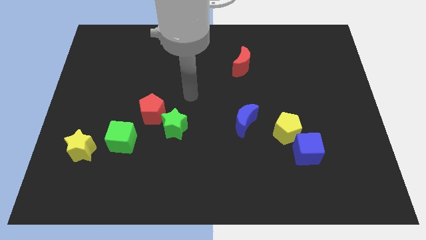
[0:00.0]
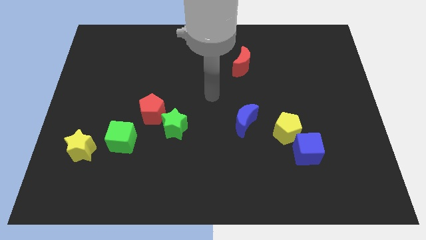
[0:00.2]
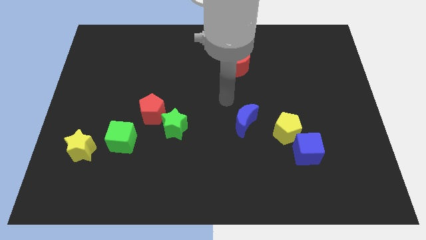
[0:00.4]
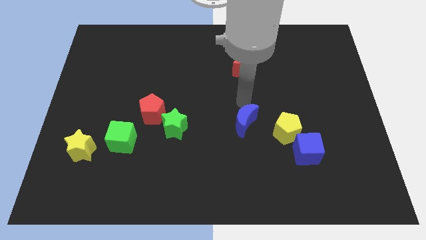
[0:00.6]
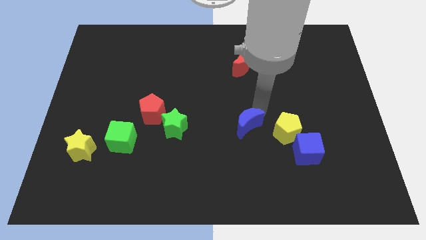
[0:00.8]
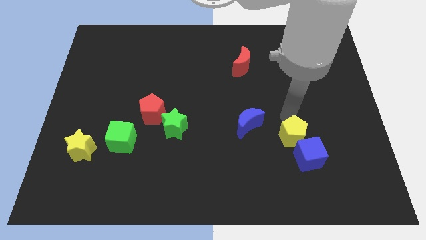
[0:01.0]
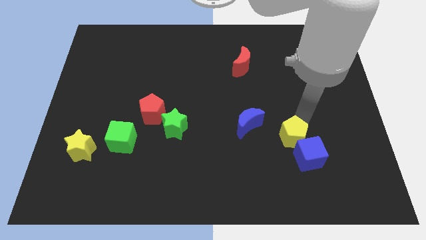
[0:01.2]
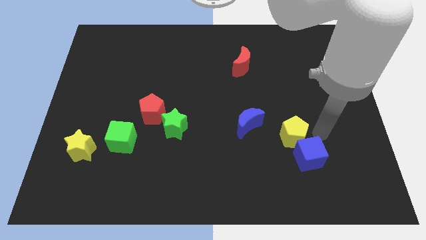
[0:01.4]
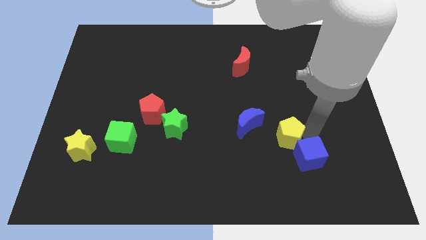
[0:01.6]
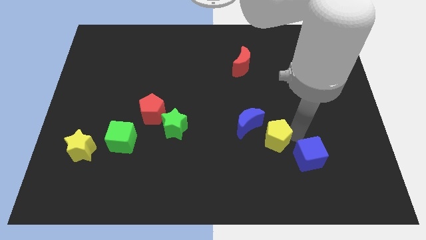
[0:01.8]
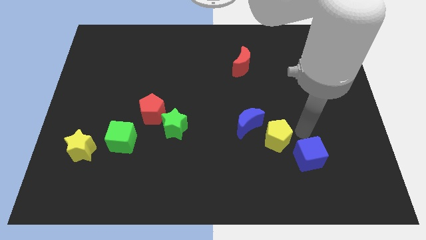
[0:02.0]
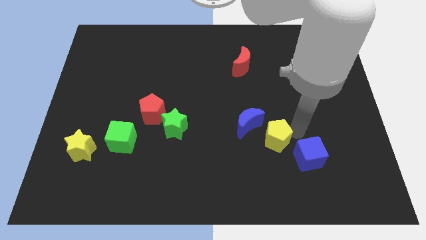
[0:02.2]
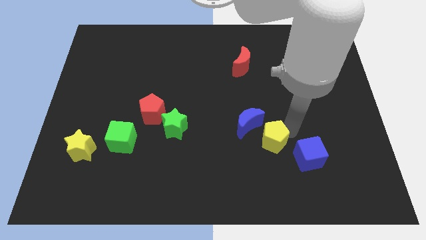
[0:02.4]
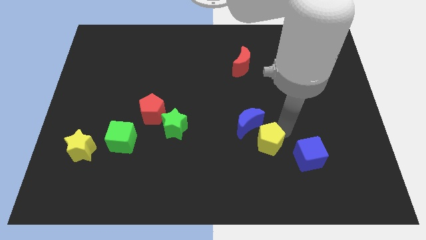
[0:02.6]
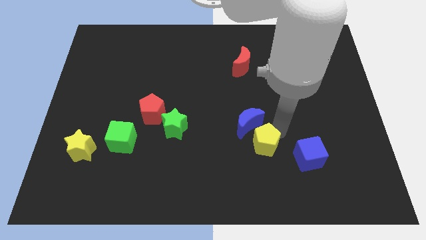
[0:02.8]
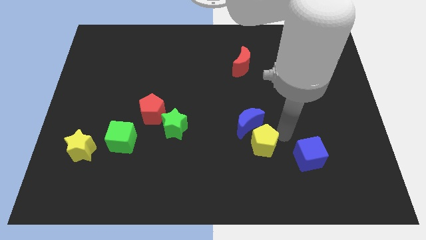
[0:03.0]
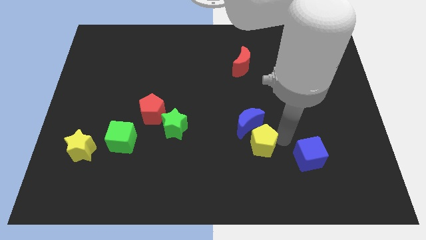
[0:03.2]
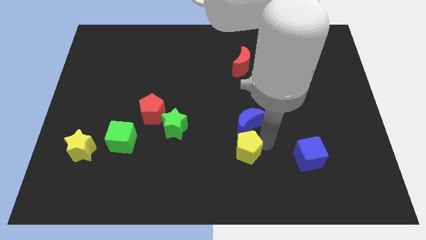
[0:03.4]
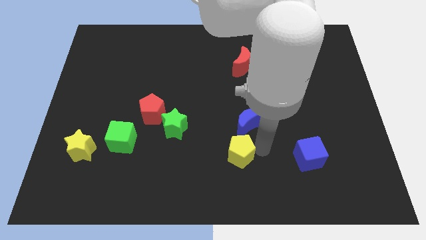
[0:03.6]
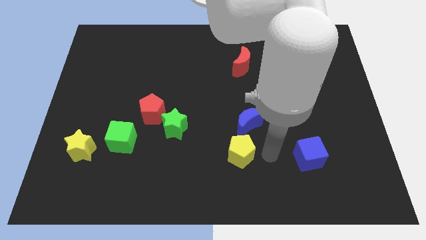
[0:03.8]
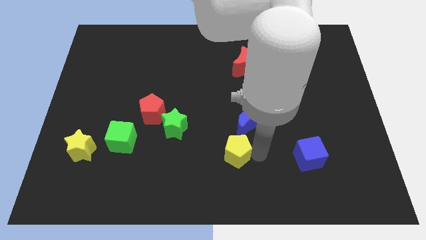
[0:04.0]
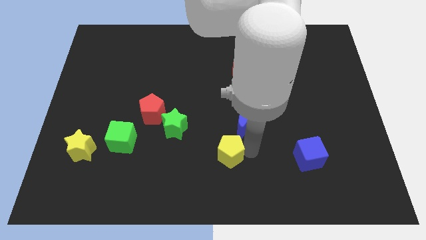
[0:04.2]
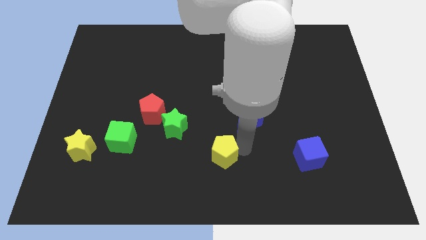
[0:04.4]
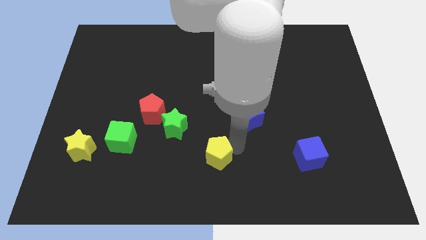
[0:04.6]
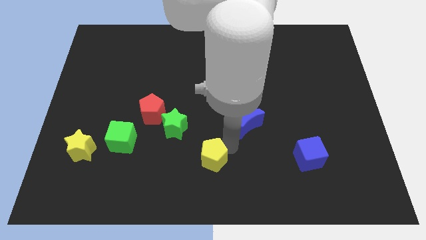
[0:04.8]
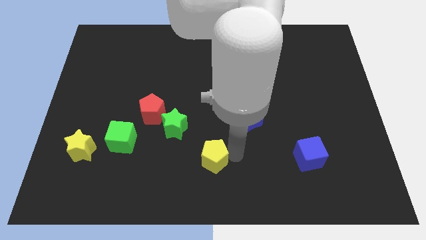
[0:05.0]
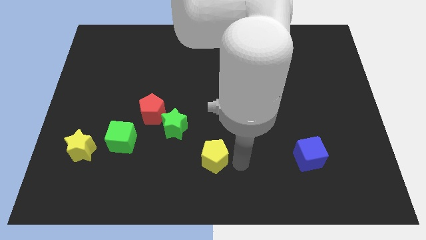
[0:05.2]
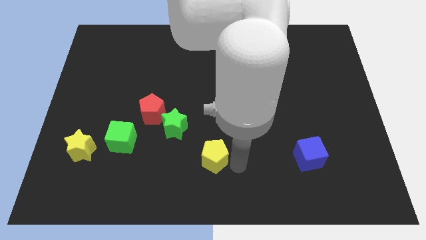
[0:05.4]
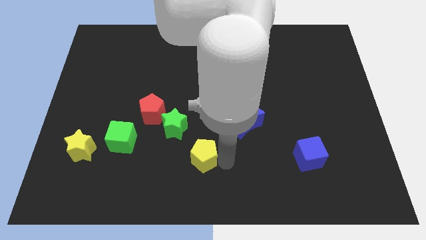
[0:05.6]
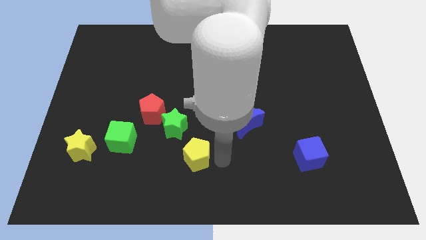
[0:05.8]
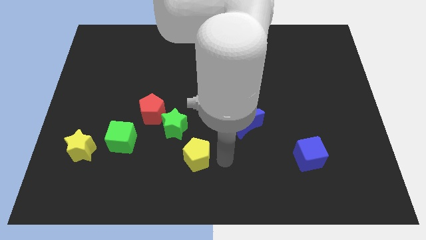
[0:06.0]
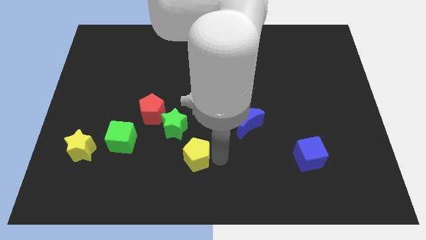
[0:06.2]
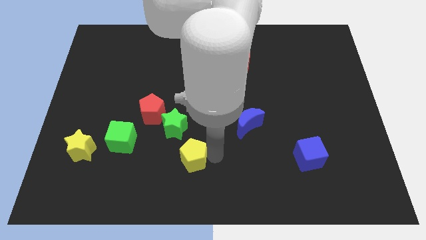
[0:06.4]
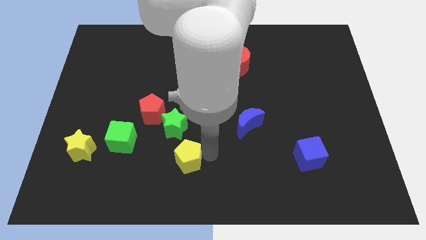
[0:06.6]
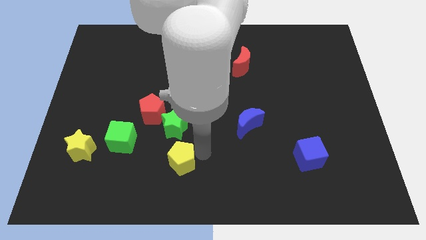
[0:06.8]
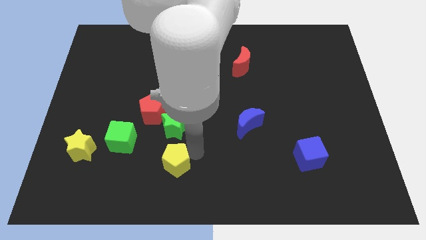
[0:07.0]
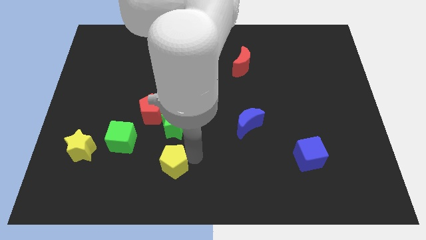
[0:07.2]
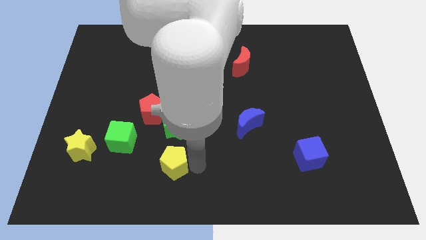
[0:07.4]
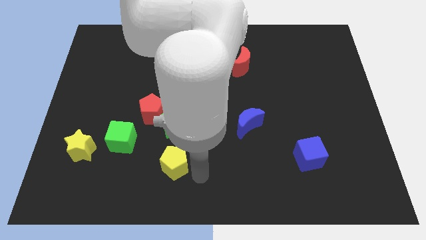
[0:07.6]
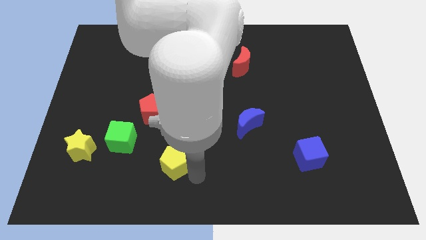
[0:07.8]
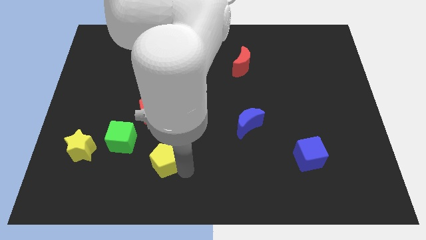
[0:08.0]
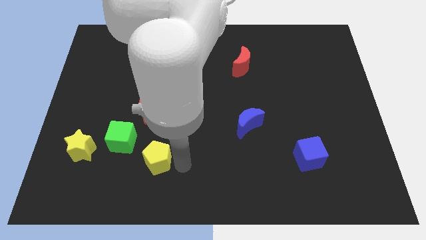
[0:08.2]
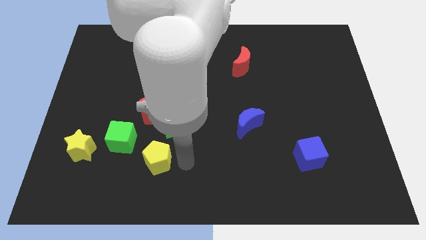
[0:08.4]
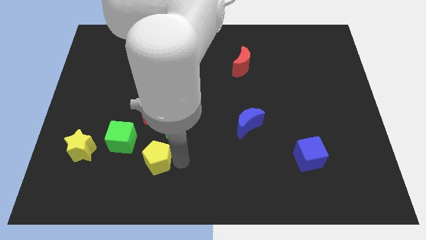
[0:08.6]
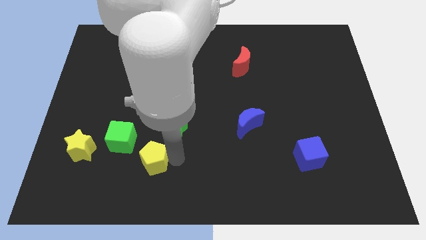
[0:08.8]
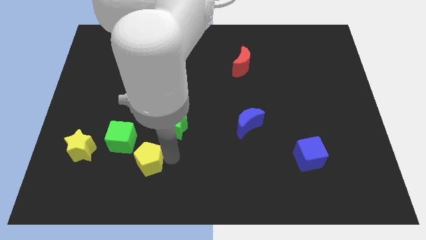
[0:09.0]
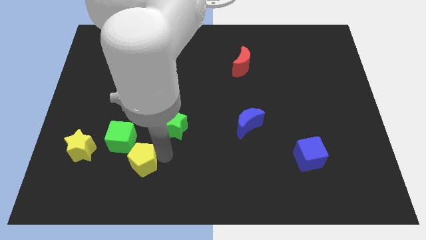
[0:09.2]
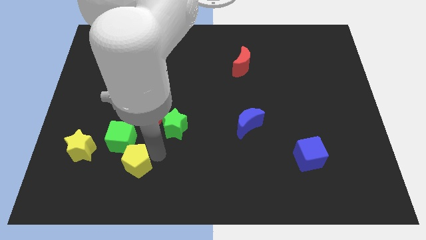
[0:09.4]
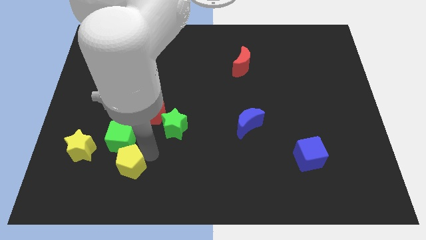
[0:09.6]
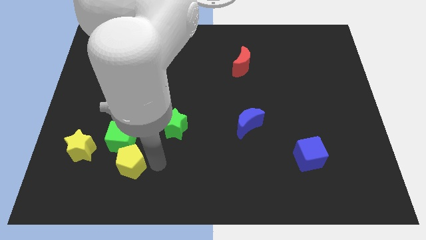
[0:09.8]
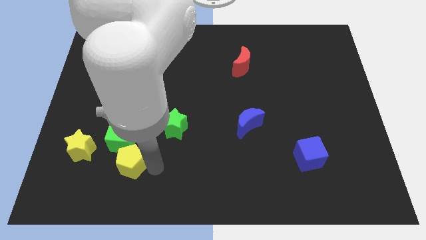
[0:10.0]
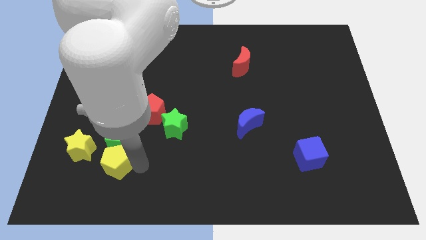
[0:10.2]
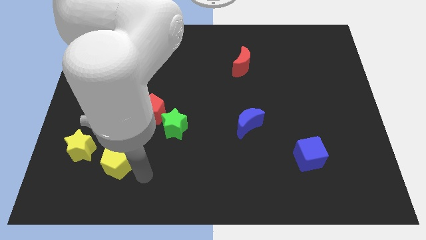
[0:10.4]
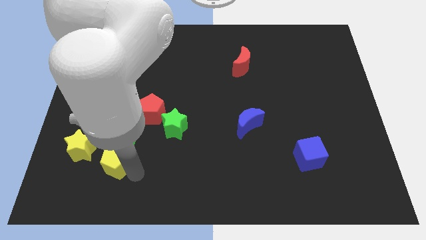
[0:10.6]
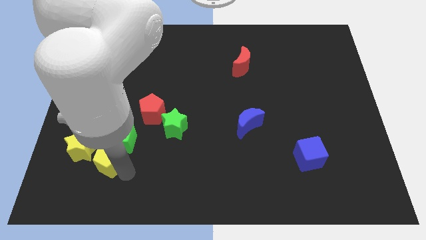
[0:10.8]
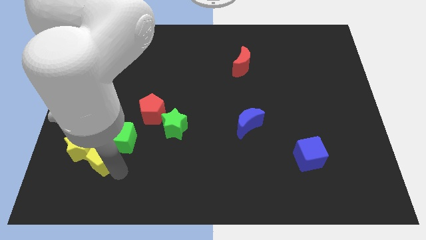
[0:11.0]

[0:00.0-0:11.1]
put the yellow pentagon towards the yellow star

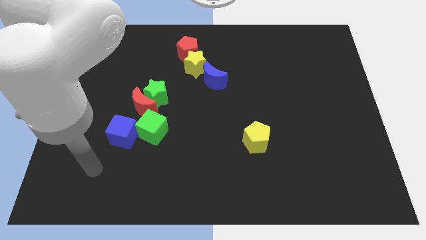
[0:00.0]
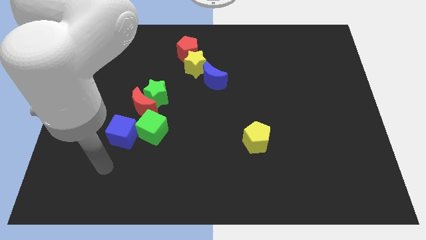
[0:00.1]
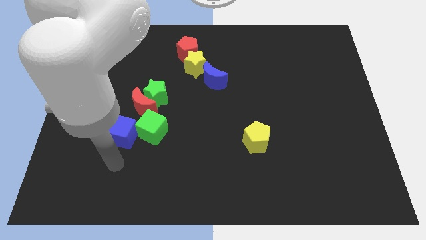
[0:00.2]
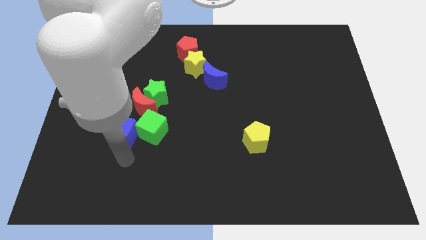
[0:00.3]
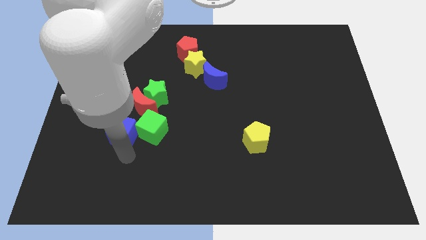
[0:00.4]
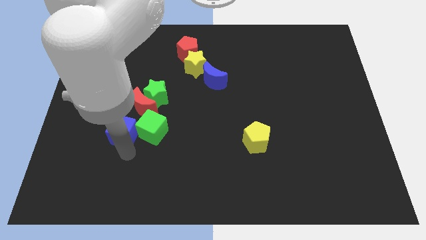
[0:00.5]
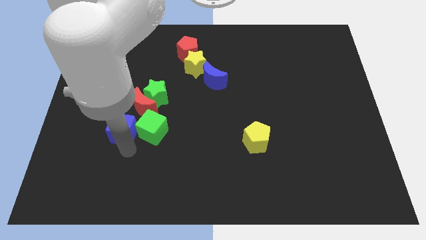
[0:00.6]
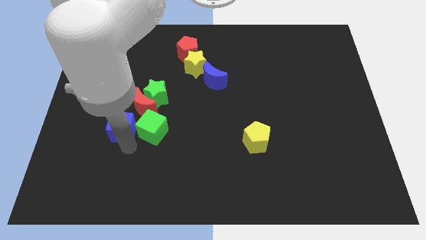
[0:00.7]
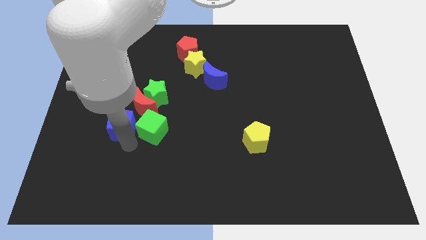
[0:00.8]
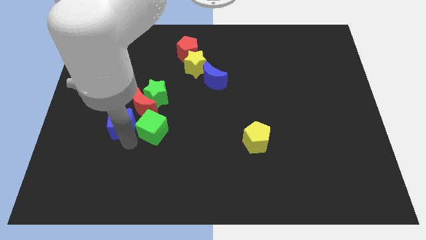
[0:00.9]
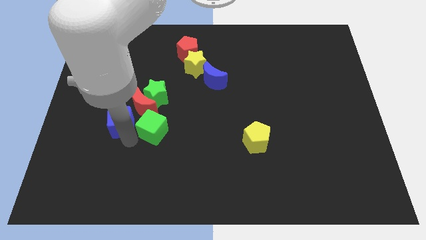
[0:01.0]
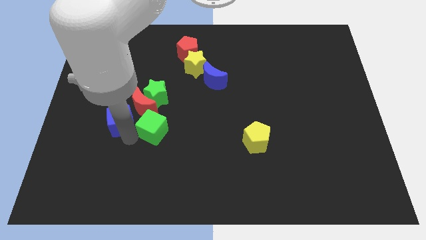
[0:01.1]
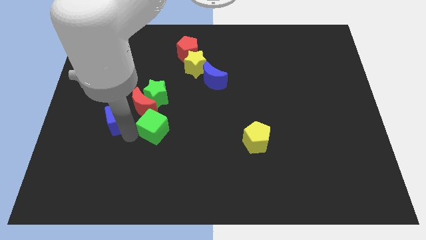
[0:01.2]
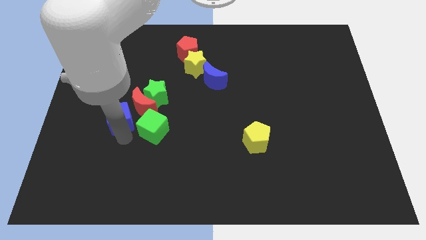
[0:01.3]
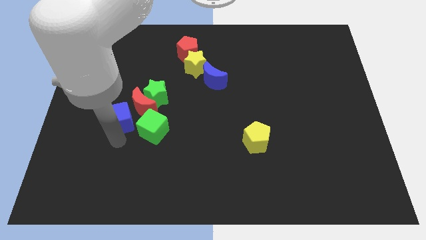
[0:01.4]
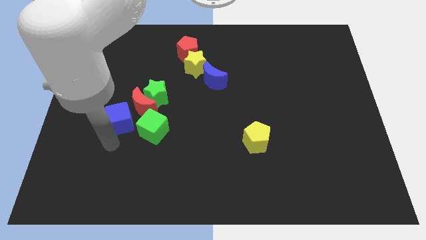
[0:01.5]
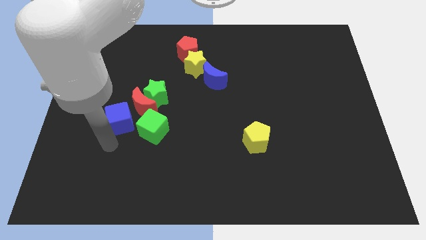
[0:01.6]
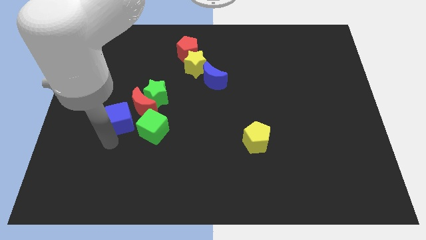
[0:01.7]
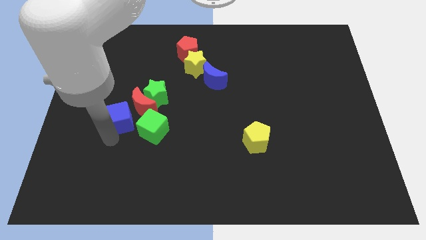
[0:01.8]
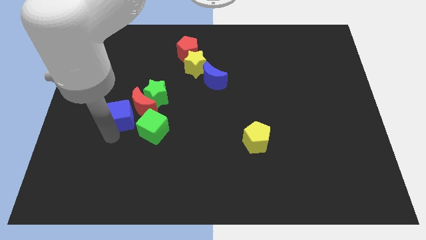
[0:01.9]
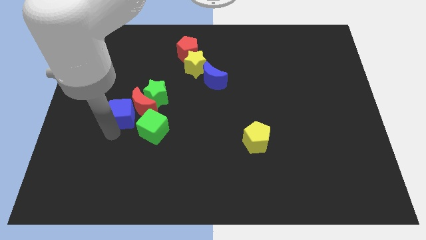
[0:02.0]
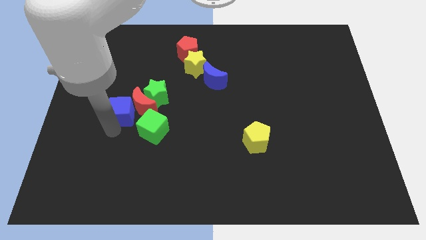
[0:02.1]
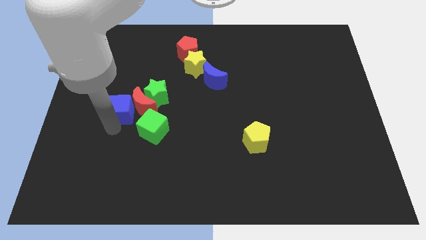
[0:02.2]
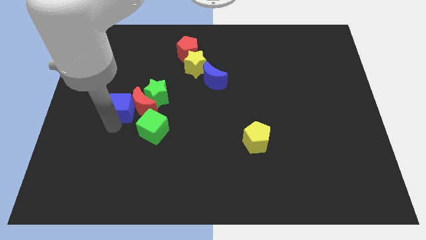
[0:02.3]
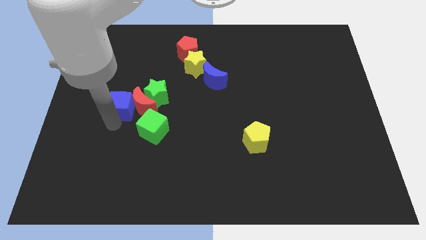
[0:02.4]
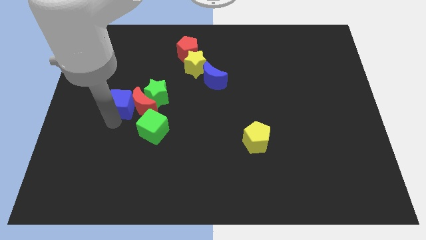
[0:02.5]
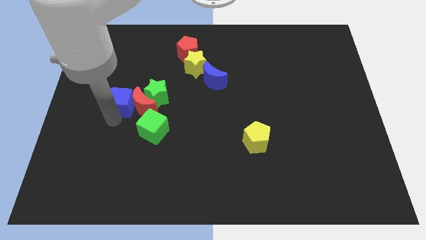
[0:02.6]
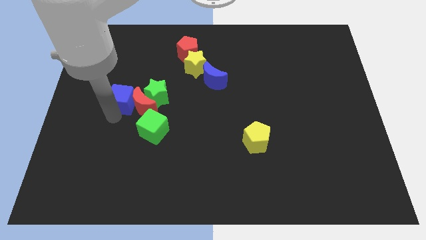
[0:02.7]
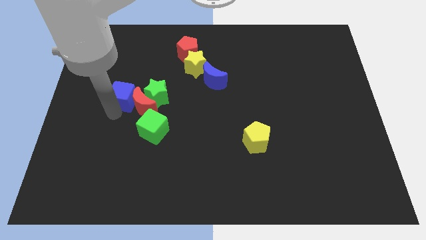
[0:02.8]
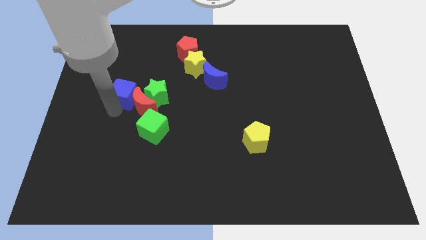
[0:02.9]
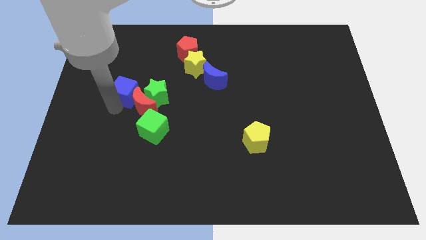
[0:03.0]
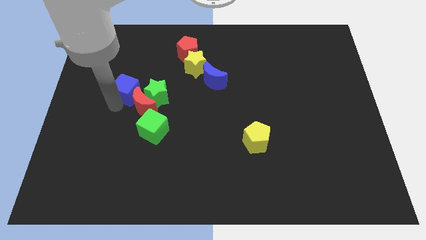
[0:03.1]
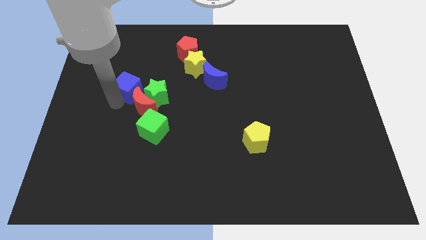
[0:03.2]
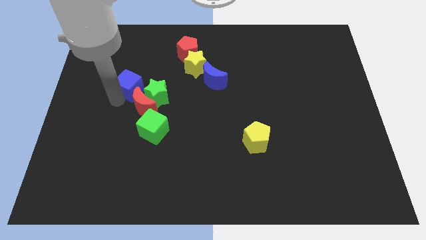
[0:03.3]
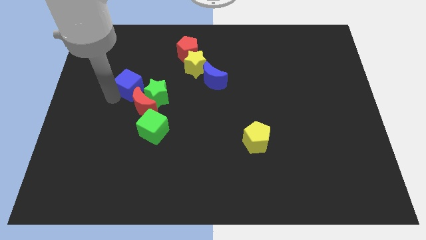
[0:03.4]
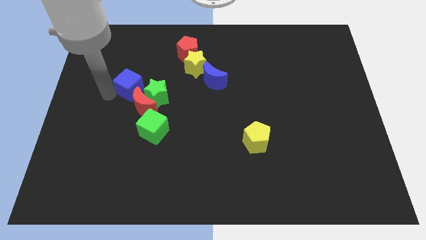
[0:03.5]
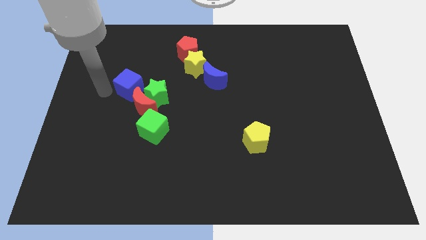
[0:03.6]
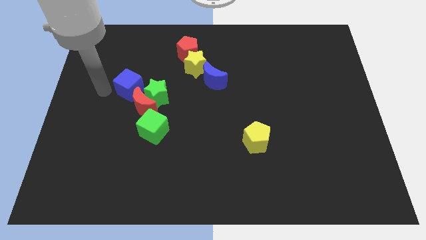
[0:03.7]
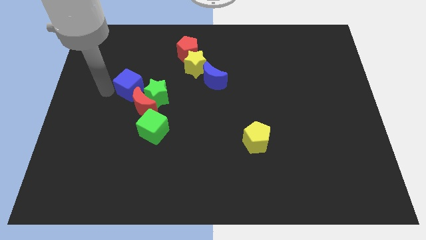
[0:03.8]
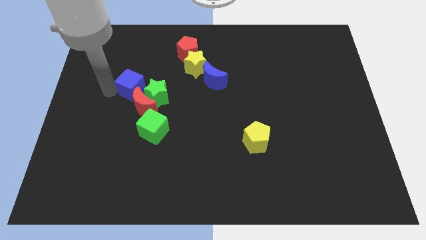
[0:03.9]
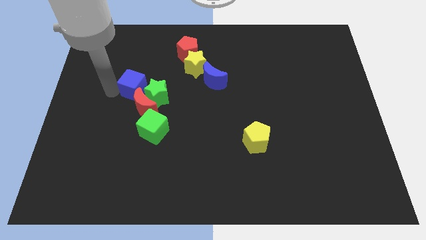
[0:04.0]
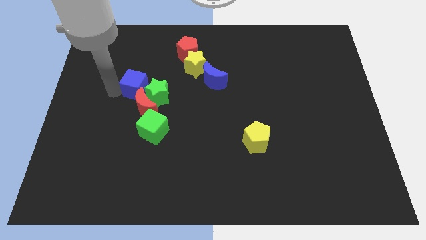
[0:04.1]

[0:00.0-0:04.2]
move the blue cube next to the green star
